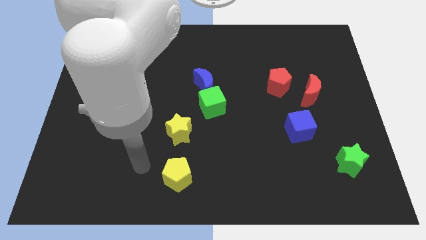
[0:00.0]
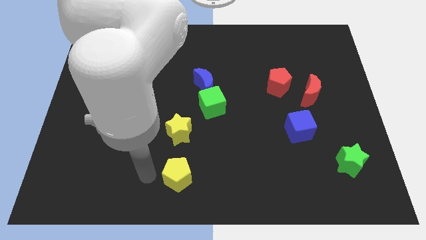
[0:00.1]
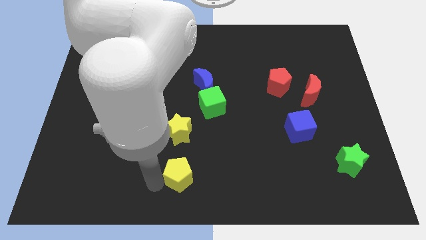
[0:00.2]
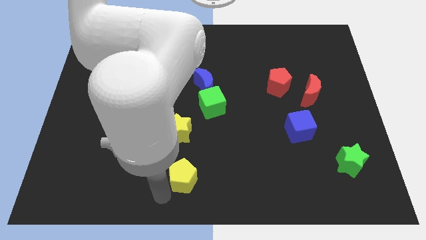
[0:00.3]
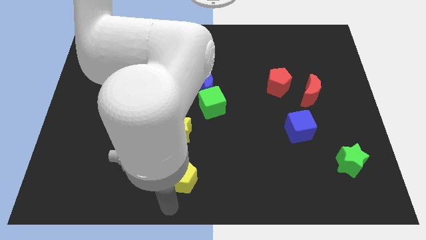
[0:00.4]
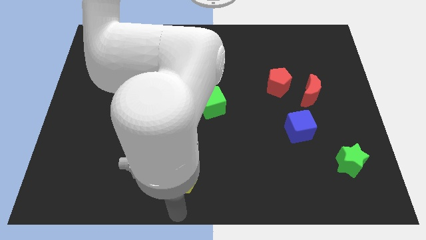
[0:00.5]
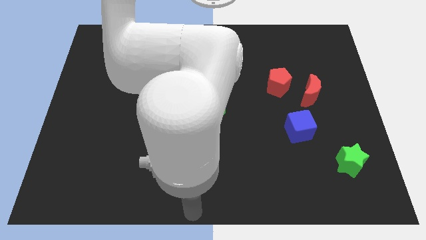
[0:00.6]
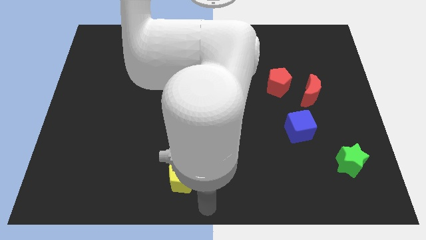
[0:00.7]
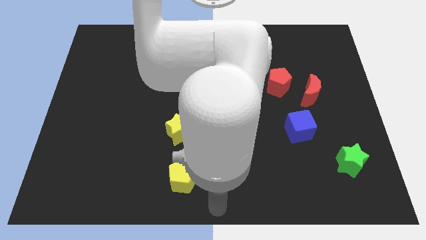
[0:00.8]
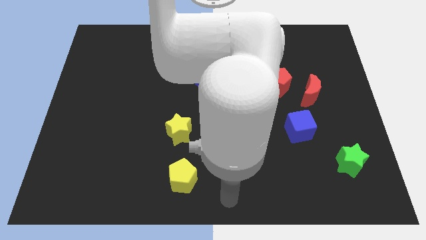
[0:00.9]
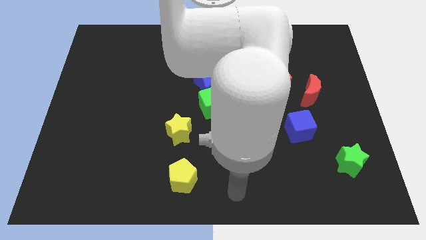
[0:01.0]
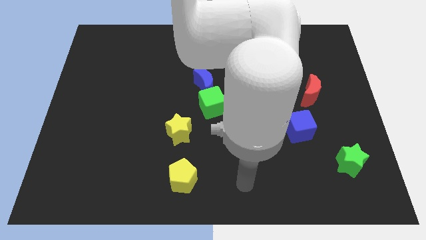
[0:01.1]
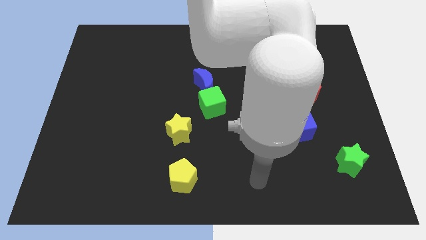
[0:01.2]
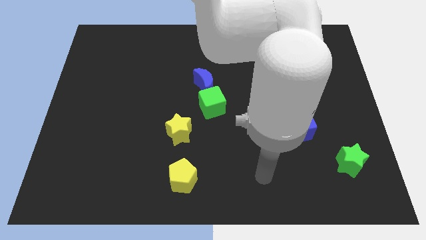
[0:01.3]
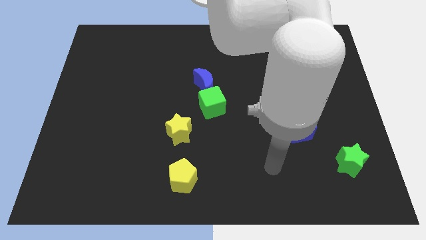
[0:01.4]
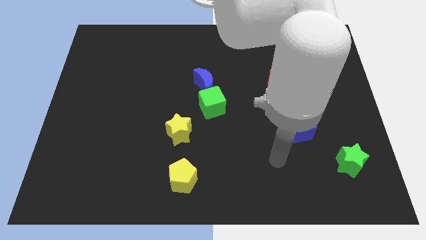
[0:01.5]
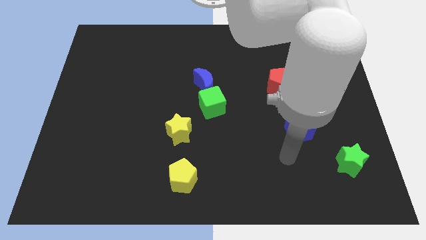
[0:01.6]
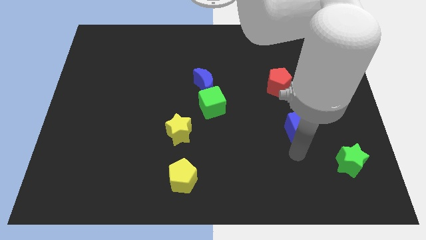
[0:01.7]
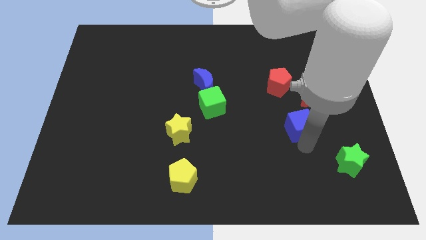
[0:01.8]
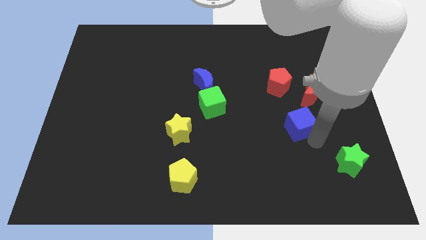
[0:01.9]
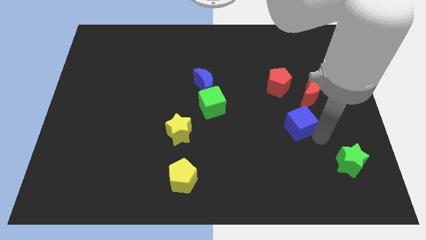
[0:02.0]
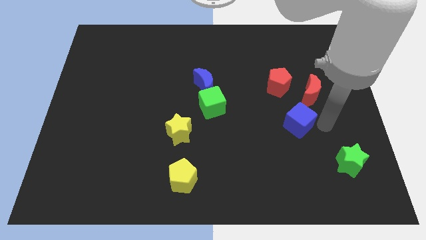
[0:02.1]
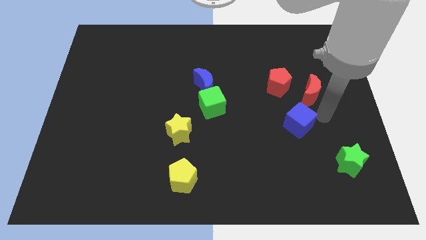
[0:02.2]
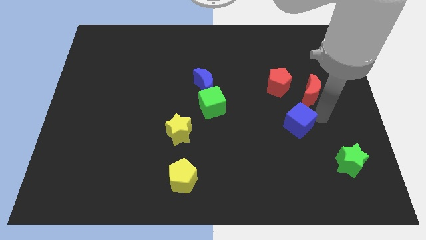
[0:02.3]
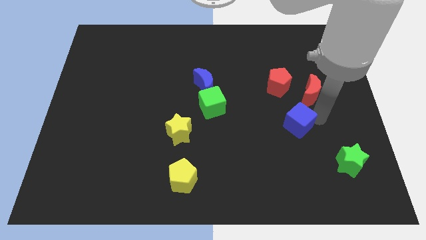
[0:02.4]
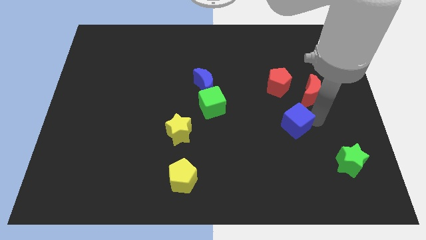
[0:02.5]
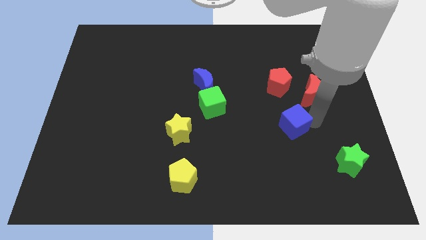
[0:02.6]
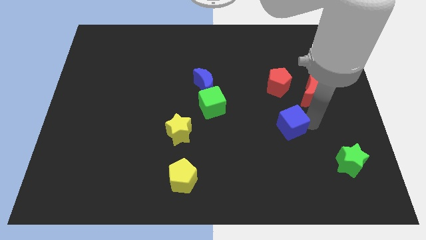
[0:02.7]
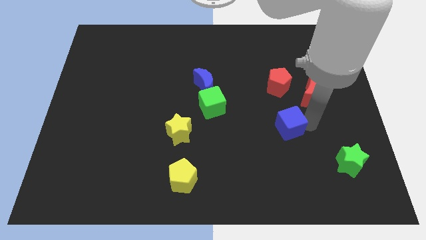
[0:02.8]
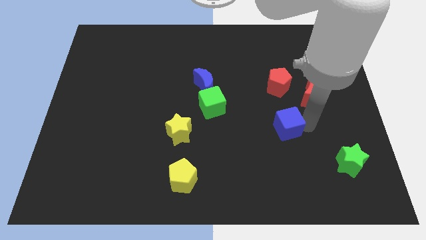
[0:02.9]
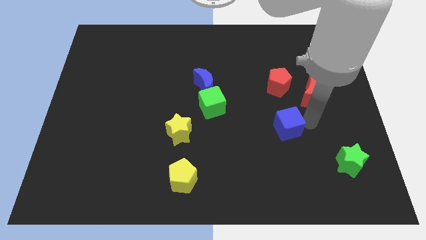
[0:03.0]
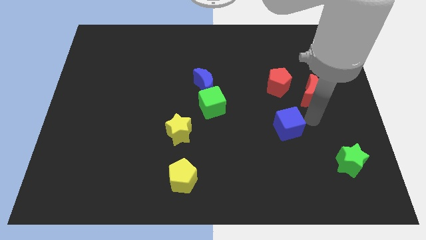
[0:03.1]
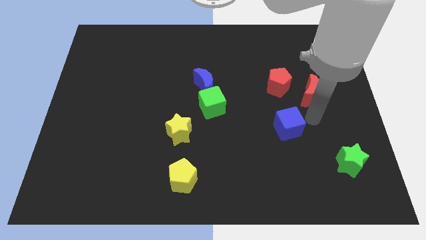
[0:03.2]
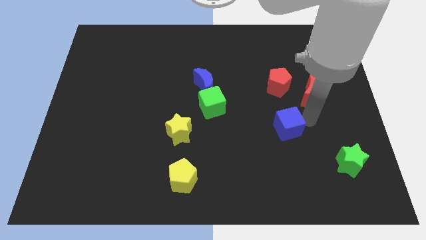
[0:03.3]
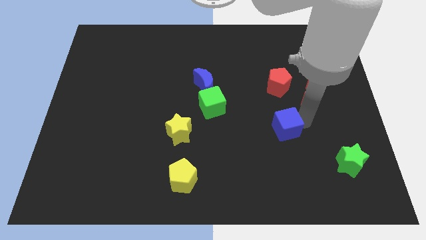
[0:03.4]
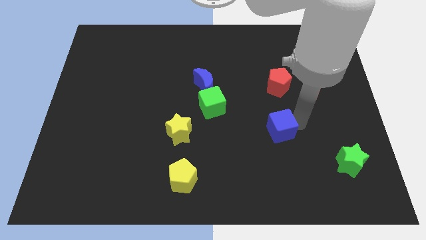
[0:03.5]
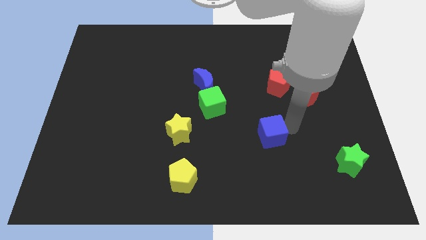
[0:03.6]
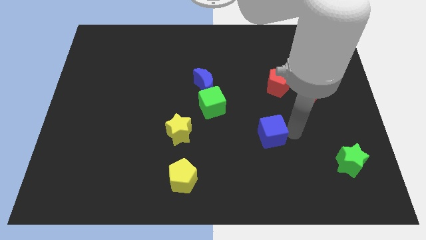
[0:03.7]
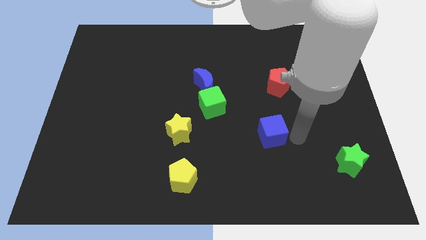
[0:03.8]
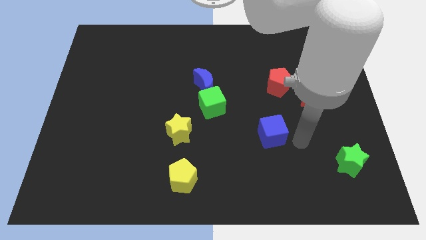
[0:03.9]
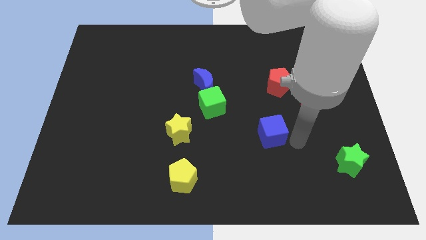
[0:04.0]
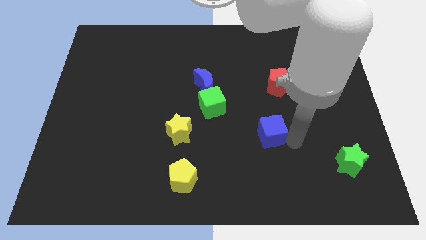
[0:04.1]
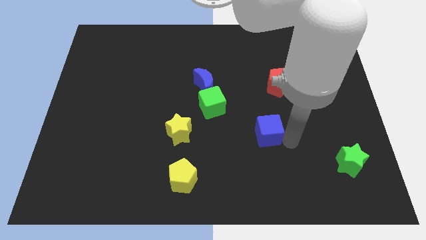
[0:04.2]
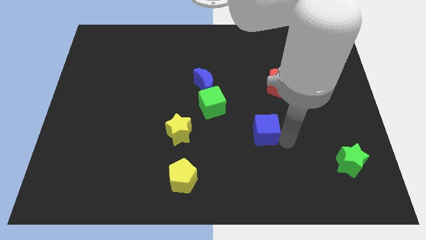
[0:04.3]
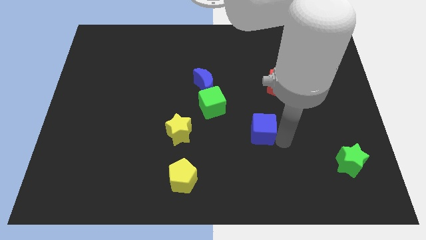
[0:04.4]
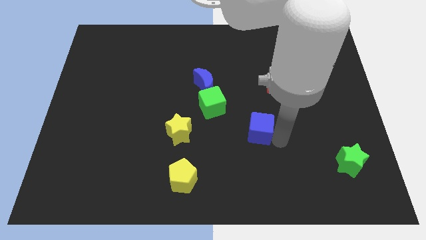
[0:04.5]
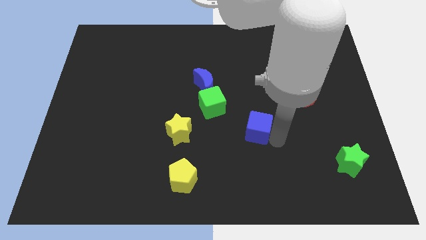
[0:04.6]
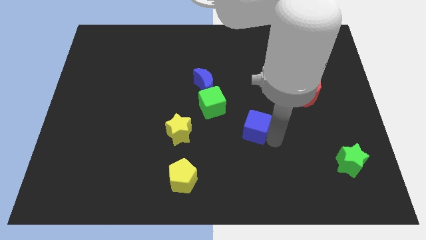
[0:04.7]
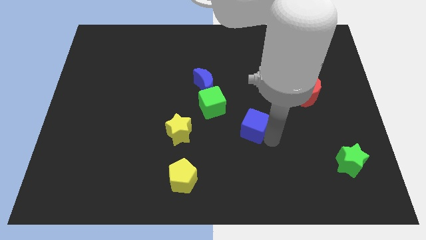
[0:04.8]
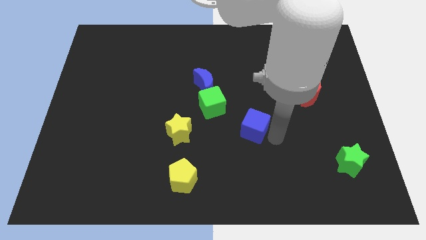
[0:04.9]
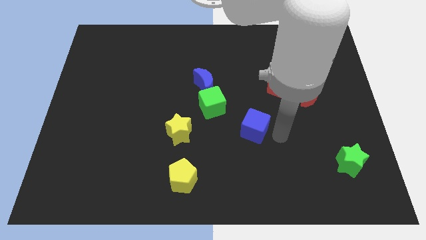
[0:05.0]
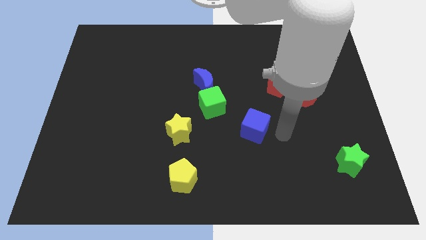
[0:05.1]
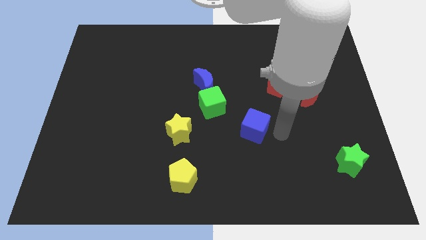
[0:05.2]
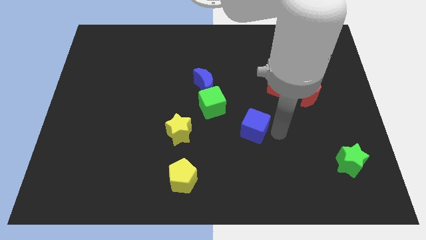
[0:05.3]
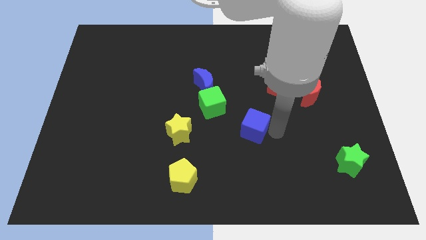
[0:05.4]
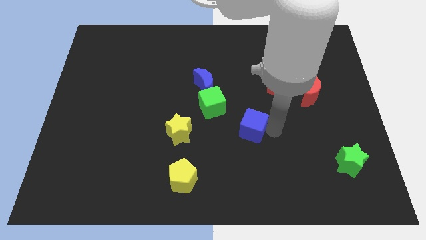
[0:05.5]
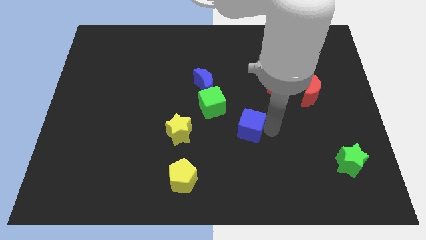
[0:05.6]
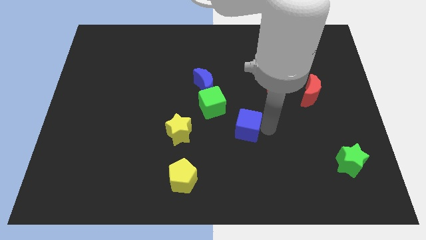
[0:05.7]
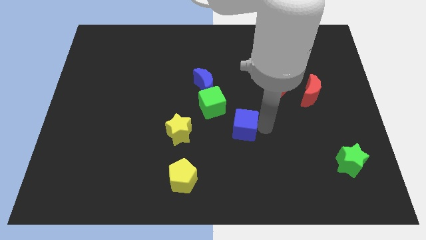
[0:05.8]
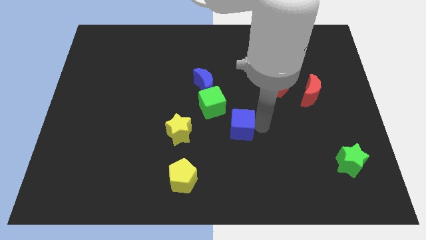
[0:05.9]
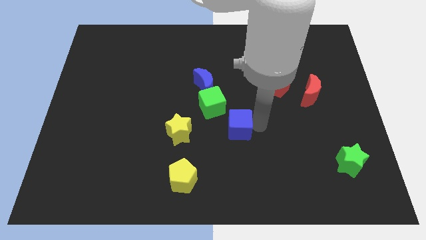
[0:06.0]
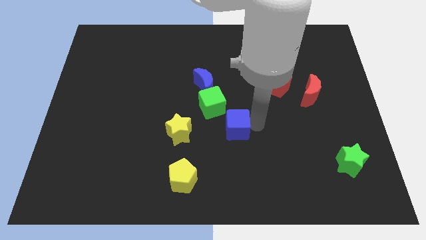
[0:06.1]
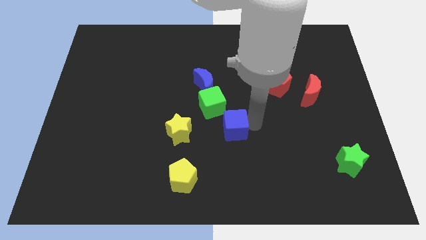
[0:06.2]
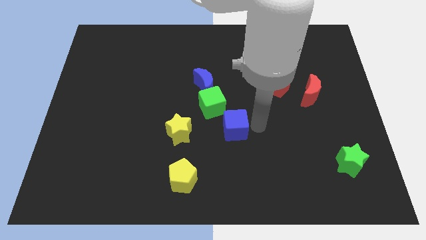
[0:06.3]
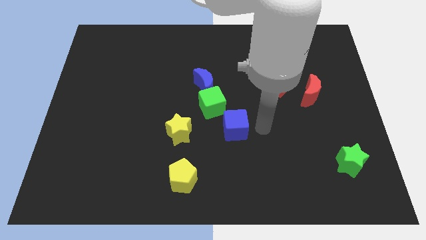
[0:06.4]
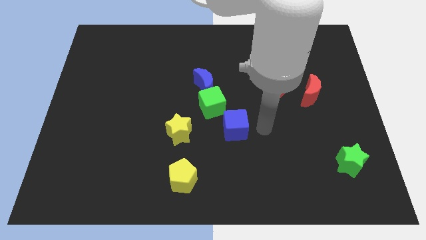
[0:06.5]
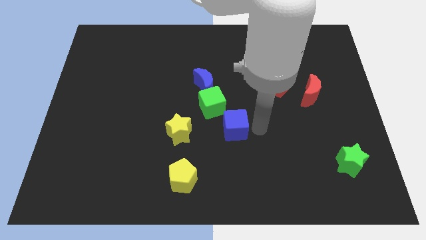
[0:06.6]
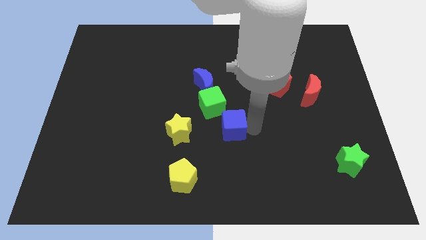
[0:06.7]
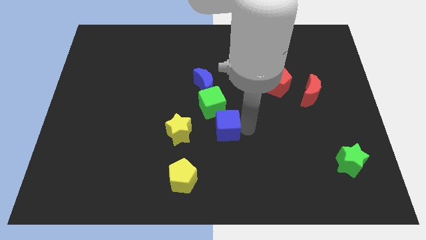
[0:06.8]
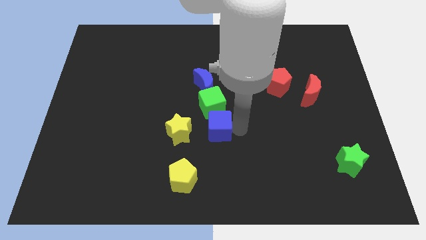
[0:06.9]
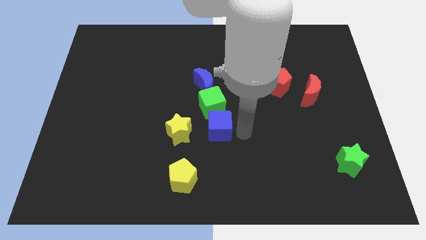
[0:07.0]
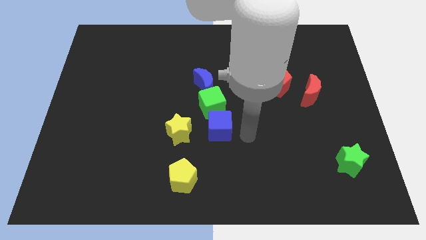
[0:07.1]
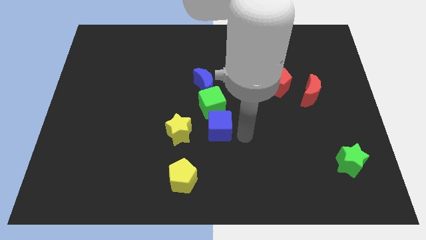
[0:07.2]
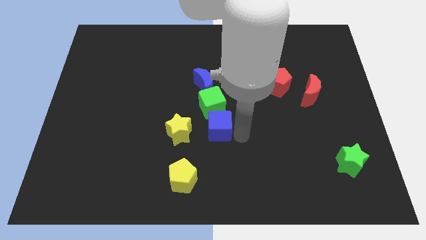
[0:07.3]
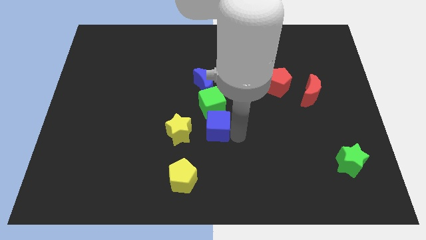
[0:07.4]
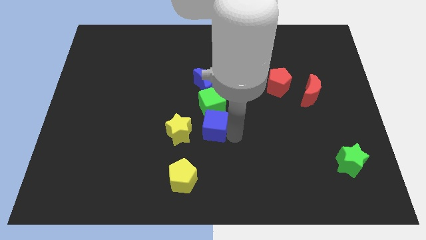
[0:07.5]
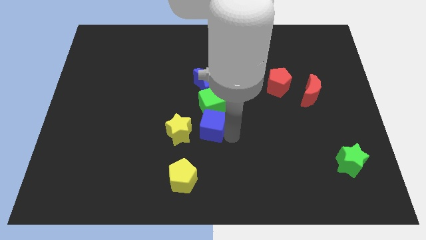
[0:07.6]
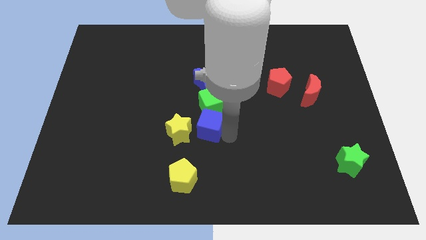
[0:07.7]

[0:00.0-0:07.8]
push the blue cube left

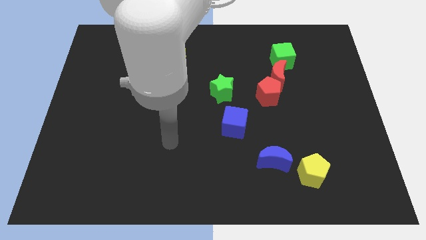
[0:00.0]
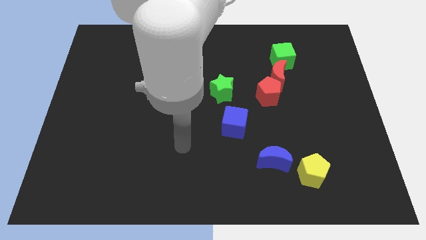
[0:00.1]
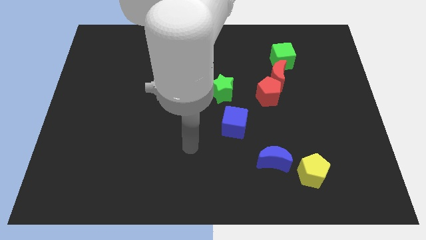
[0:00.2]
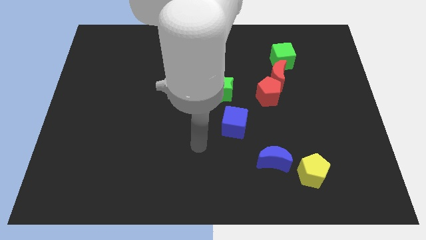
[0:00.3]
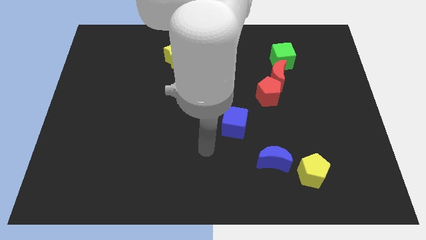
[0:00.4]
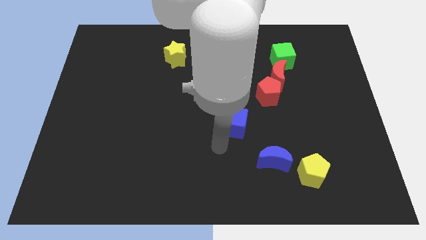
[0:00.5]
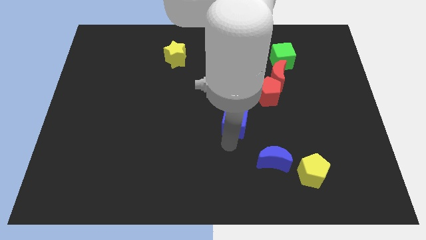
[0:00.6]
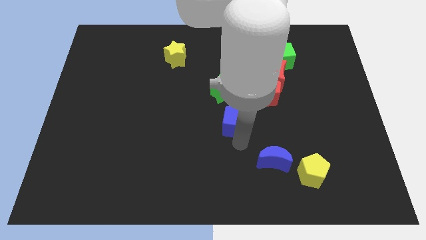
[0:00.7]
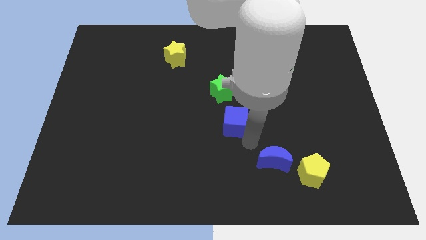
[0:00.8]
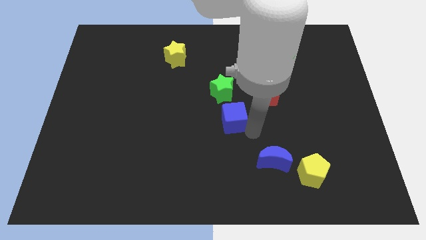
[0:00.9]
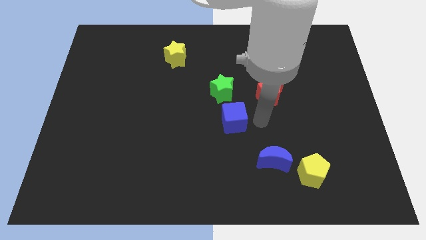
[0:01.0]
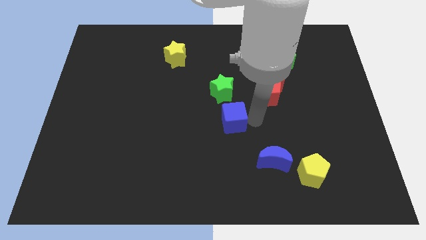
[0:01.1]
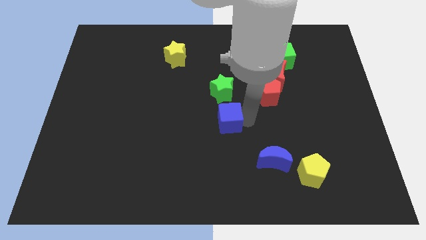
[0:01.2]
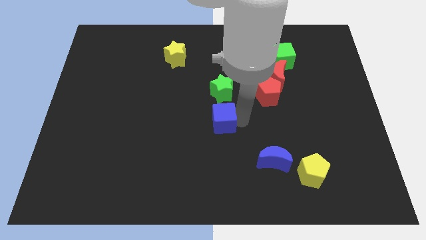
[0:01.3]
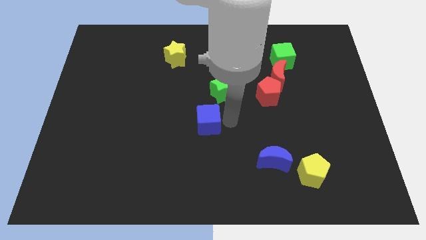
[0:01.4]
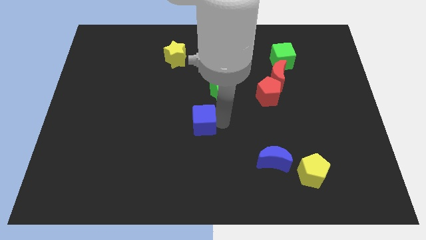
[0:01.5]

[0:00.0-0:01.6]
push the blue cube to the left slightly
